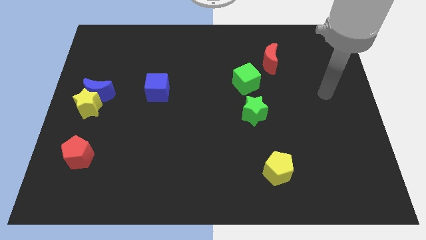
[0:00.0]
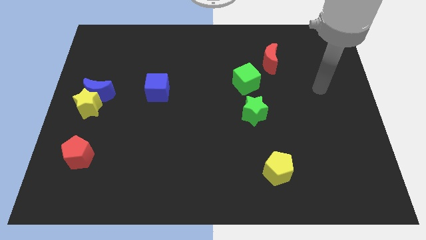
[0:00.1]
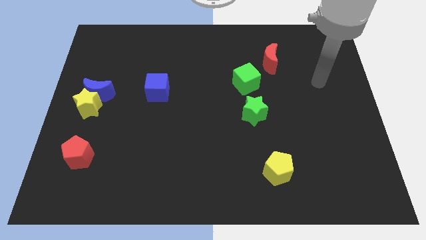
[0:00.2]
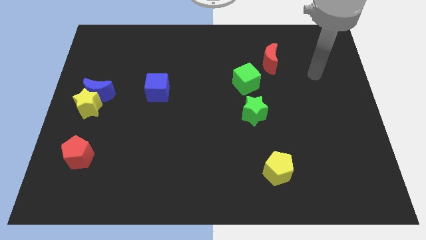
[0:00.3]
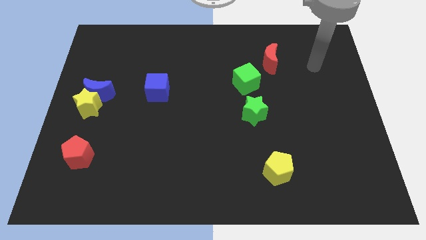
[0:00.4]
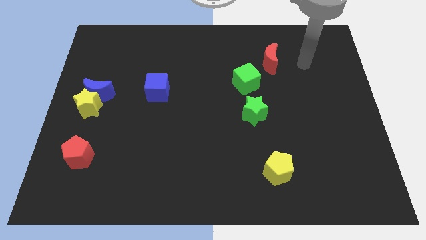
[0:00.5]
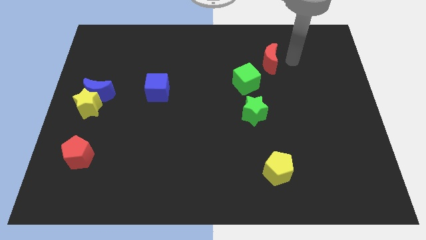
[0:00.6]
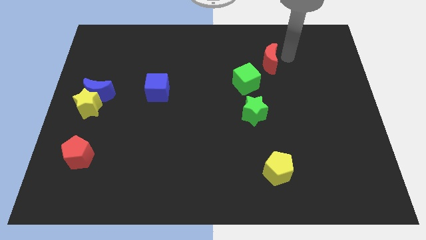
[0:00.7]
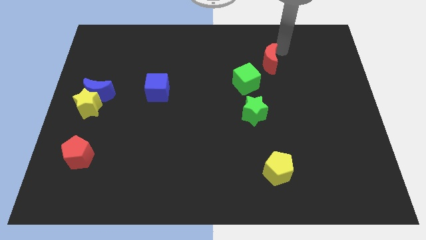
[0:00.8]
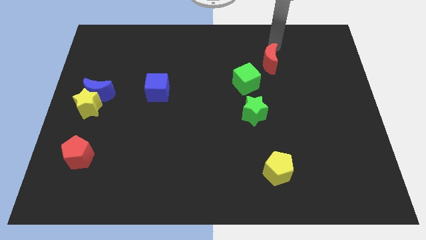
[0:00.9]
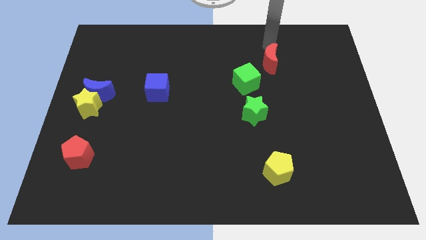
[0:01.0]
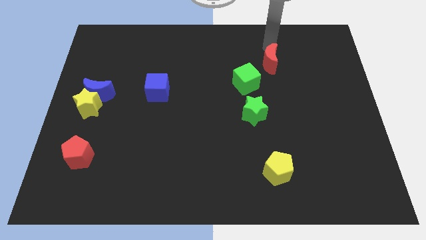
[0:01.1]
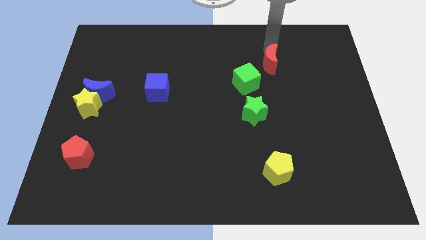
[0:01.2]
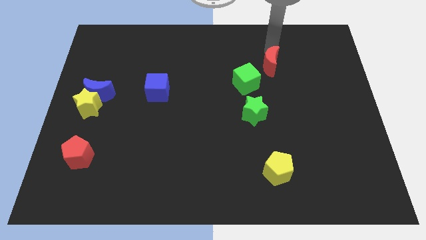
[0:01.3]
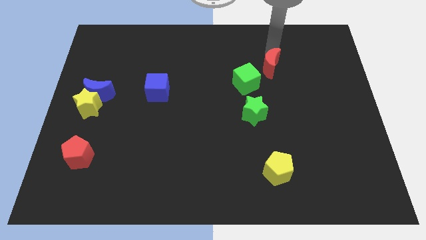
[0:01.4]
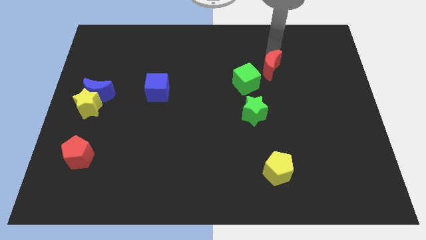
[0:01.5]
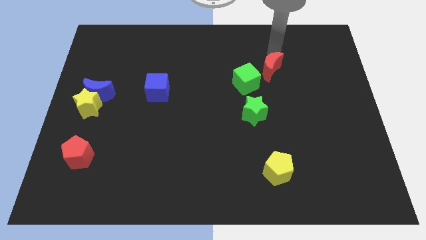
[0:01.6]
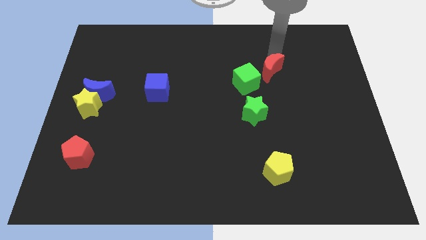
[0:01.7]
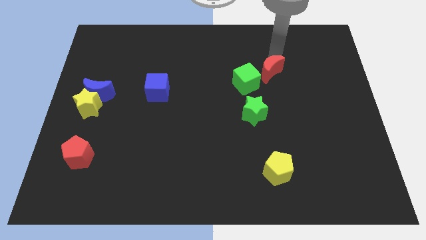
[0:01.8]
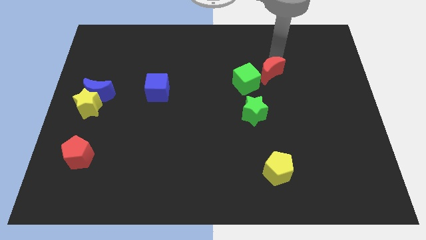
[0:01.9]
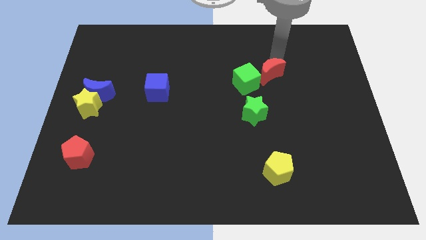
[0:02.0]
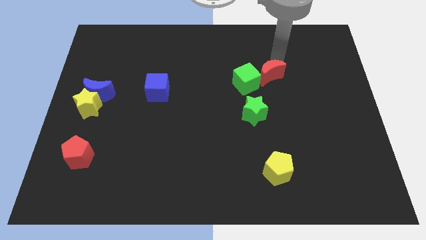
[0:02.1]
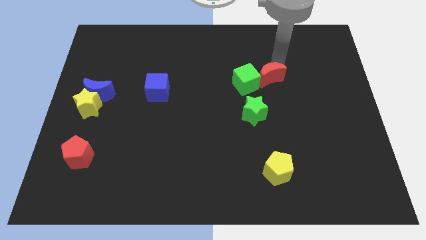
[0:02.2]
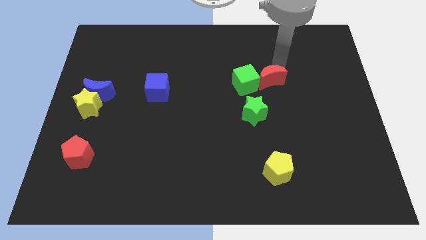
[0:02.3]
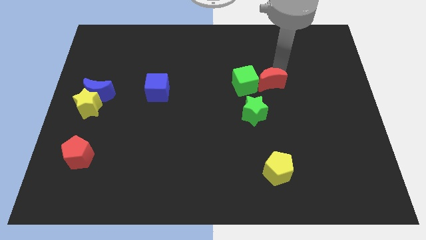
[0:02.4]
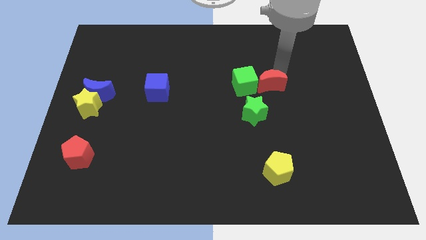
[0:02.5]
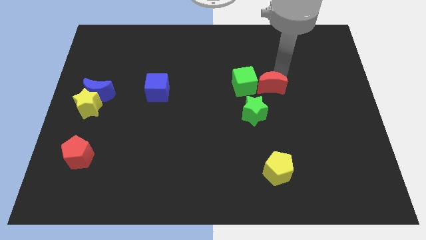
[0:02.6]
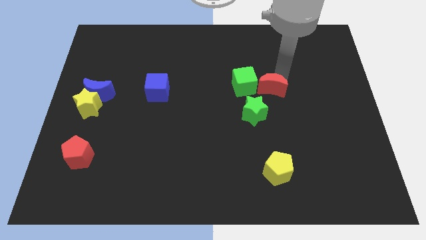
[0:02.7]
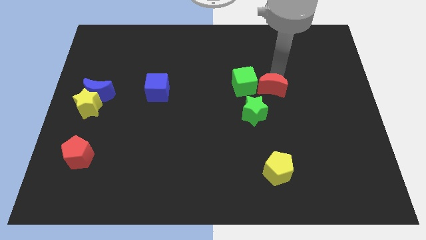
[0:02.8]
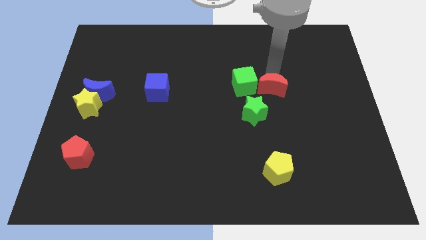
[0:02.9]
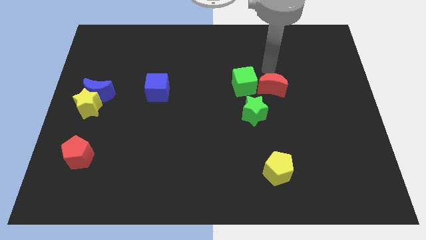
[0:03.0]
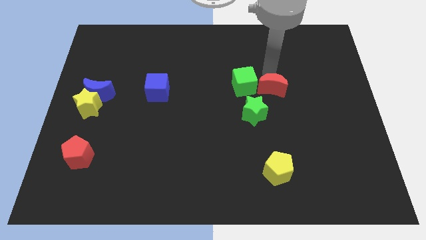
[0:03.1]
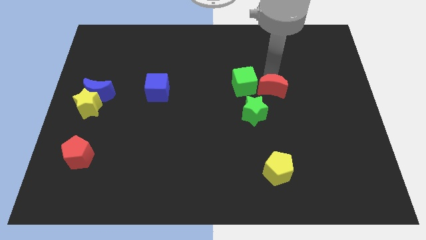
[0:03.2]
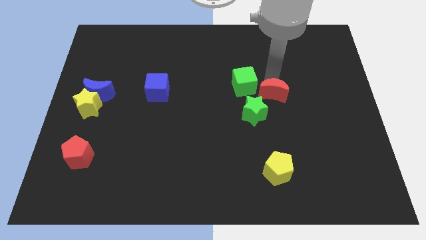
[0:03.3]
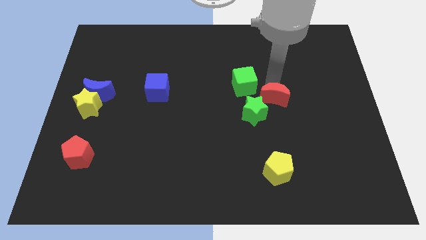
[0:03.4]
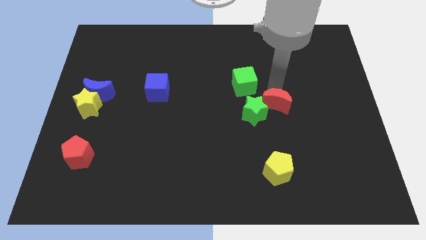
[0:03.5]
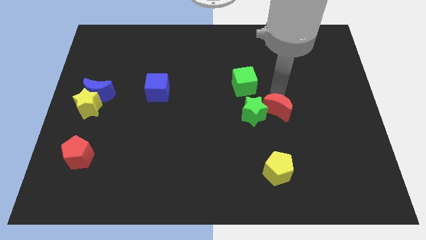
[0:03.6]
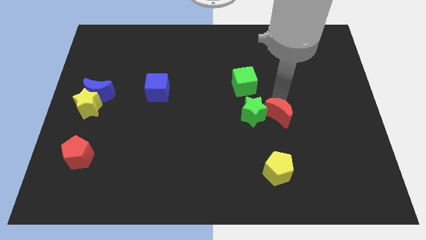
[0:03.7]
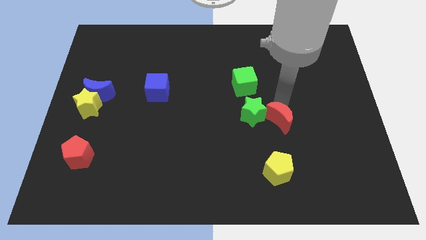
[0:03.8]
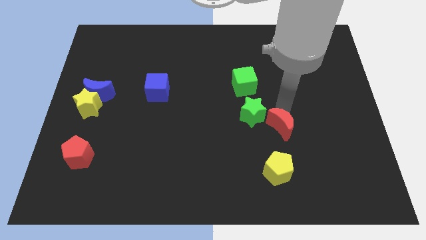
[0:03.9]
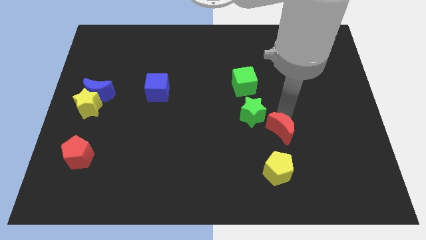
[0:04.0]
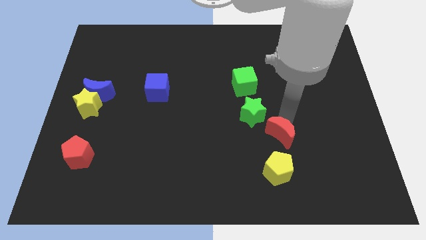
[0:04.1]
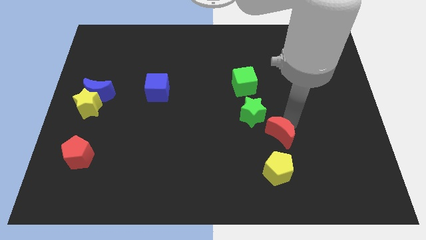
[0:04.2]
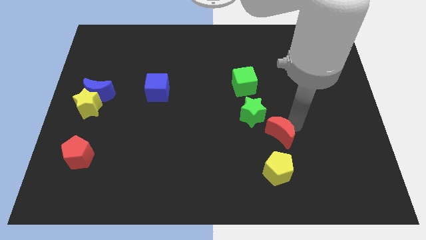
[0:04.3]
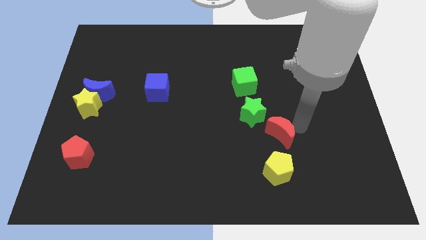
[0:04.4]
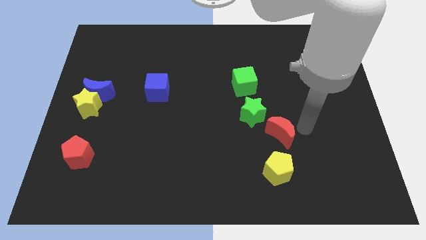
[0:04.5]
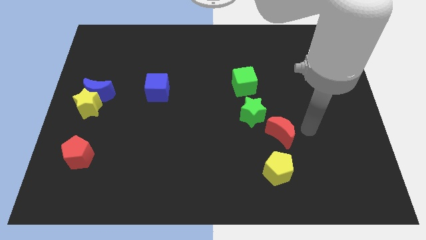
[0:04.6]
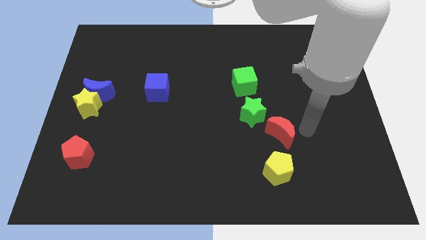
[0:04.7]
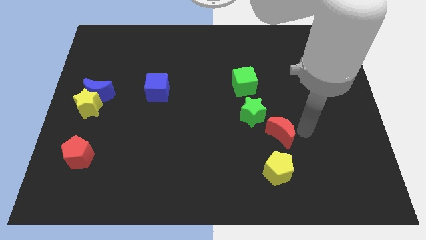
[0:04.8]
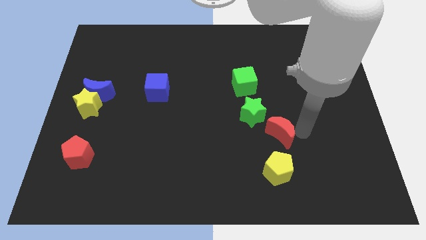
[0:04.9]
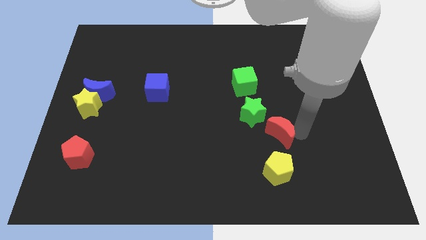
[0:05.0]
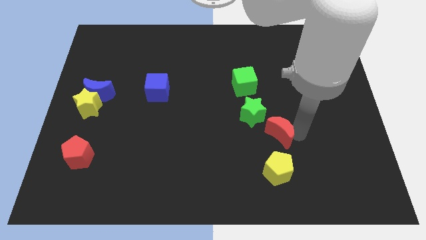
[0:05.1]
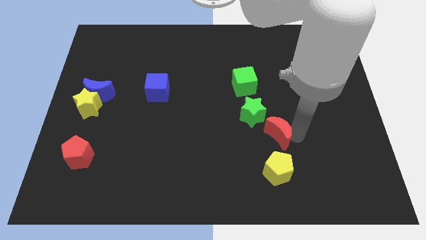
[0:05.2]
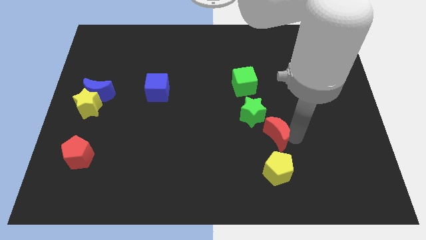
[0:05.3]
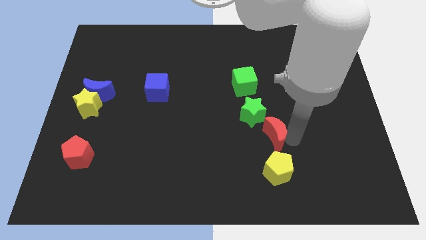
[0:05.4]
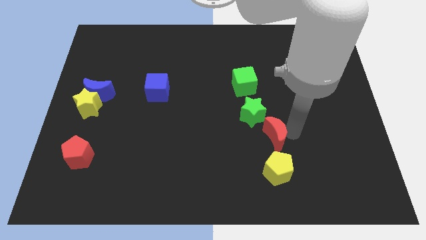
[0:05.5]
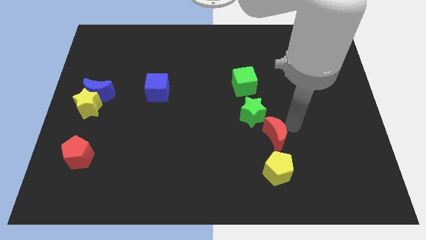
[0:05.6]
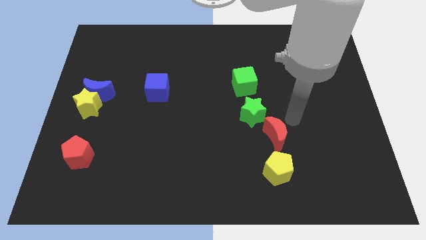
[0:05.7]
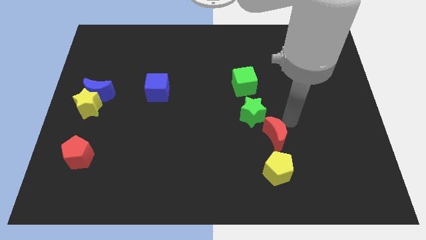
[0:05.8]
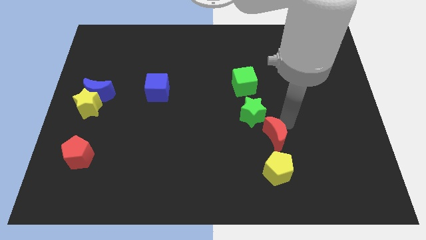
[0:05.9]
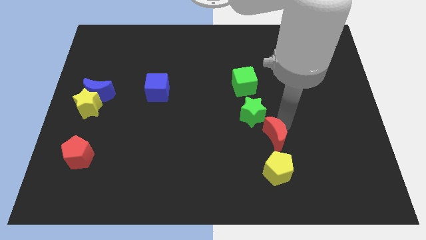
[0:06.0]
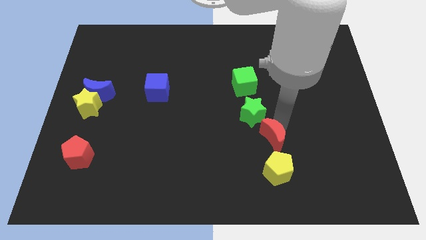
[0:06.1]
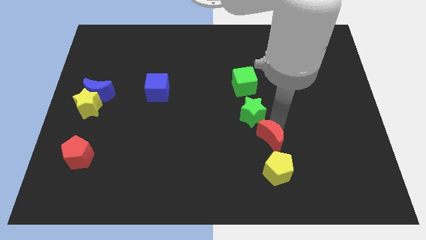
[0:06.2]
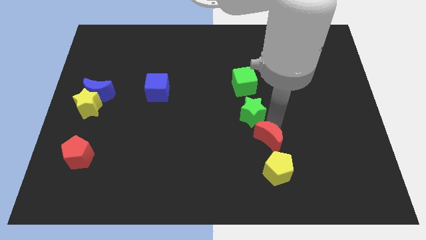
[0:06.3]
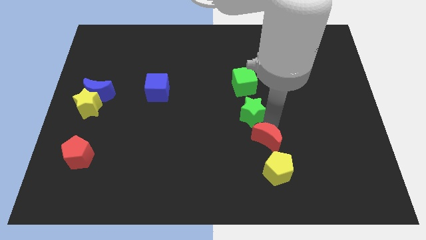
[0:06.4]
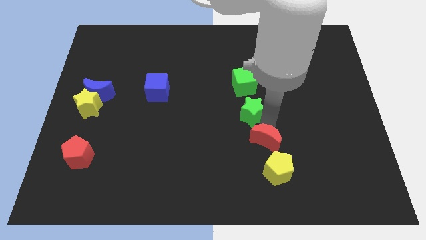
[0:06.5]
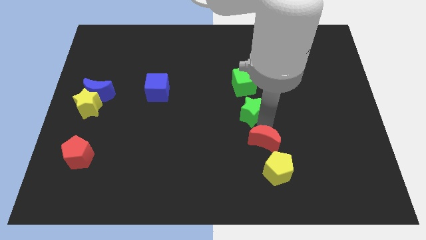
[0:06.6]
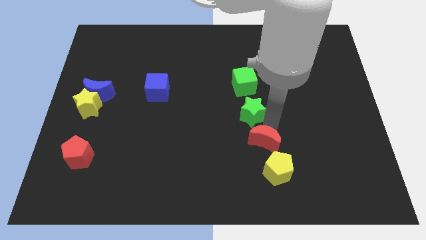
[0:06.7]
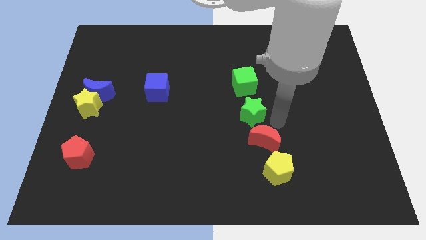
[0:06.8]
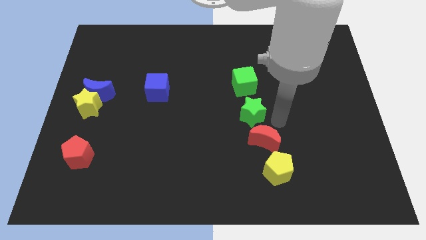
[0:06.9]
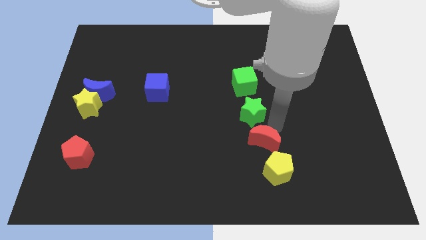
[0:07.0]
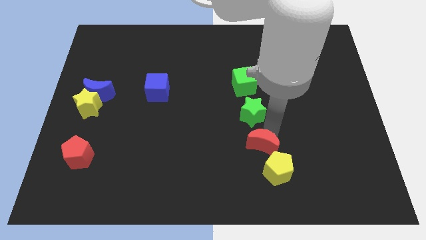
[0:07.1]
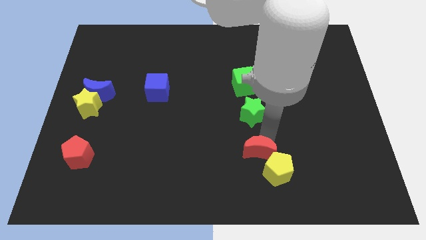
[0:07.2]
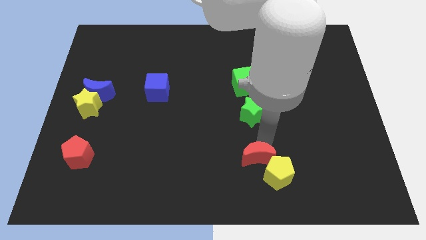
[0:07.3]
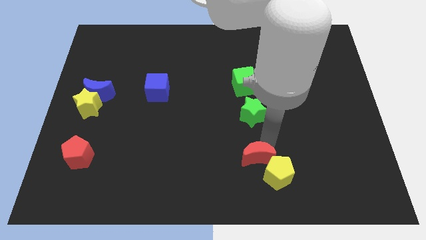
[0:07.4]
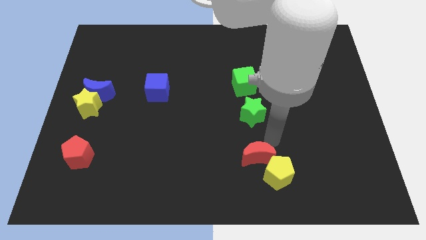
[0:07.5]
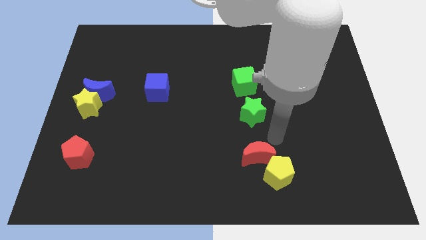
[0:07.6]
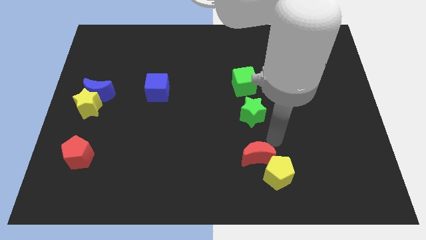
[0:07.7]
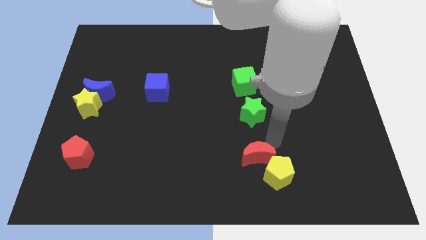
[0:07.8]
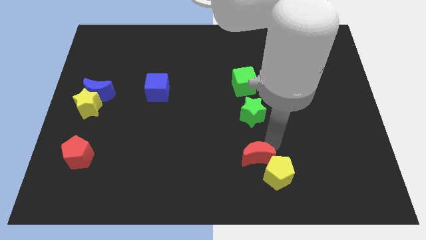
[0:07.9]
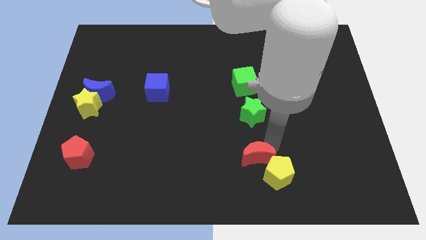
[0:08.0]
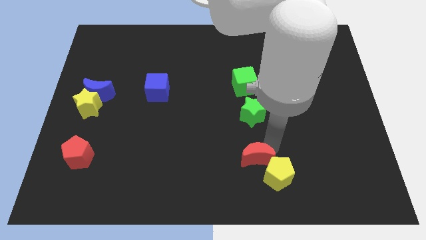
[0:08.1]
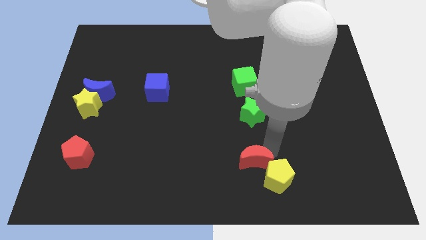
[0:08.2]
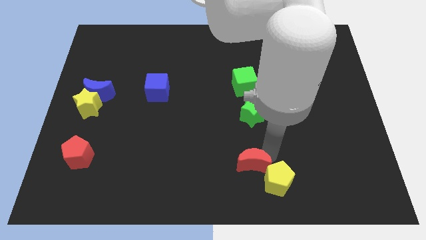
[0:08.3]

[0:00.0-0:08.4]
put the red moon to the bottom
